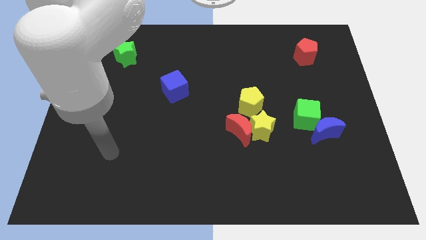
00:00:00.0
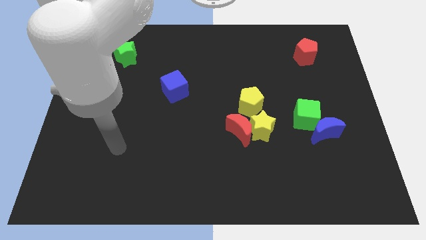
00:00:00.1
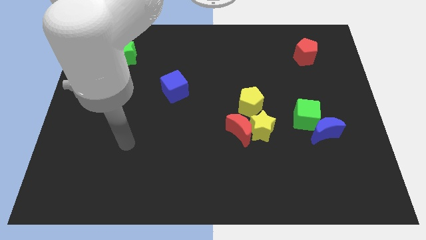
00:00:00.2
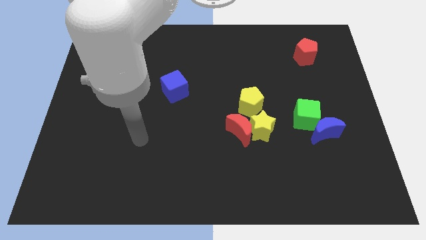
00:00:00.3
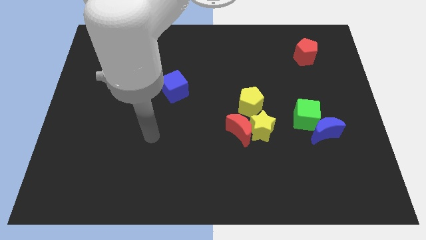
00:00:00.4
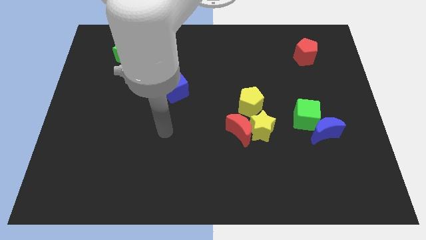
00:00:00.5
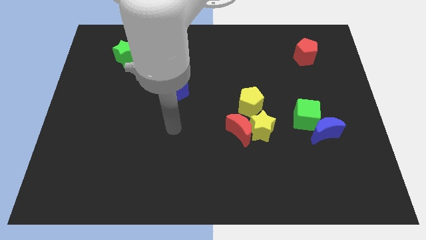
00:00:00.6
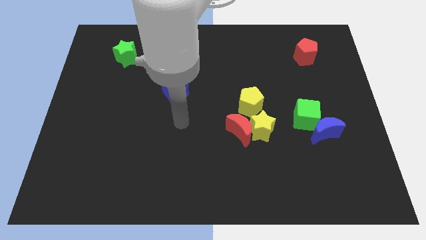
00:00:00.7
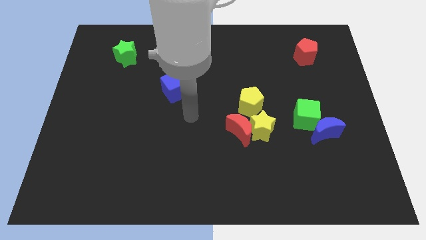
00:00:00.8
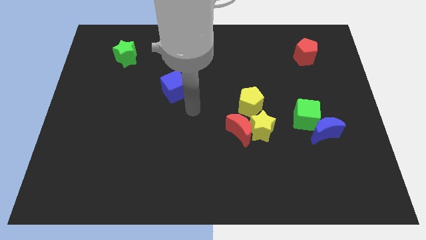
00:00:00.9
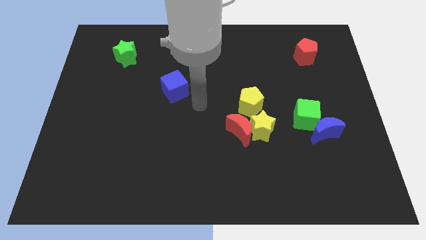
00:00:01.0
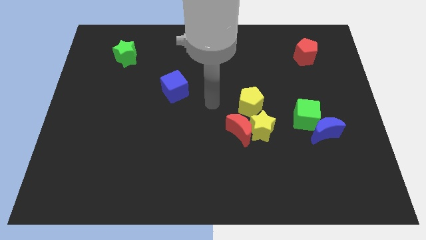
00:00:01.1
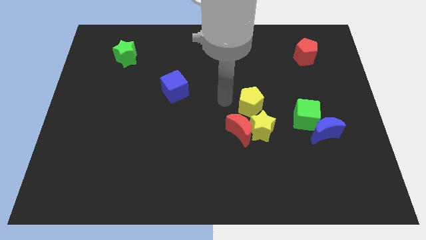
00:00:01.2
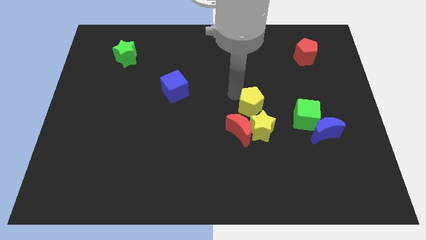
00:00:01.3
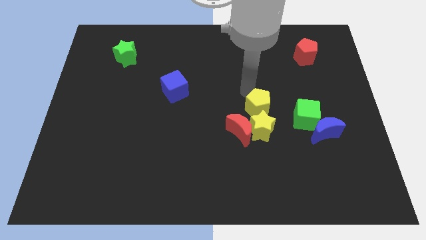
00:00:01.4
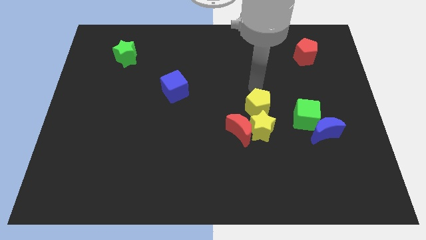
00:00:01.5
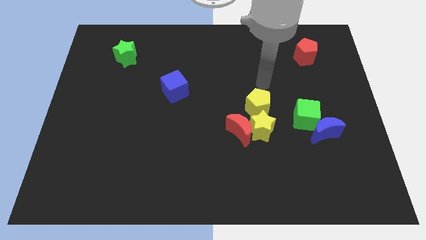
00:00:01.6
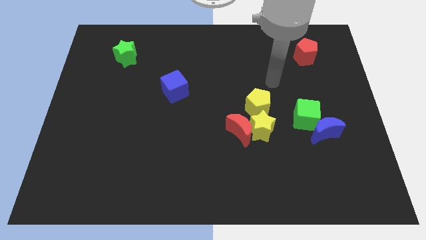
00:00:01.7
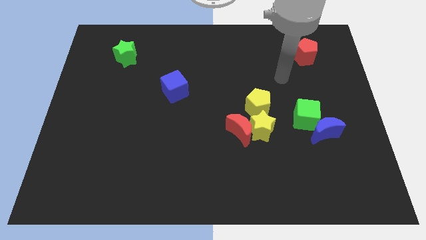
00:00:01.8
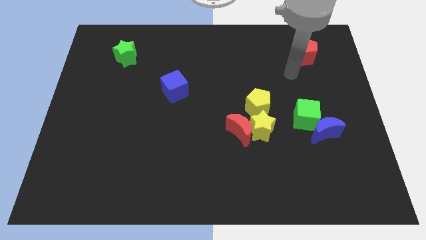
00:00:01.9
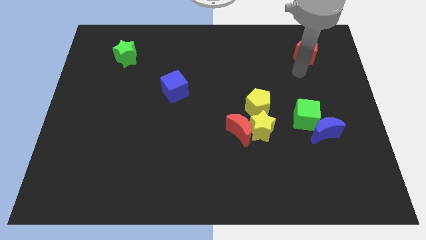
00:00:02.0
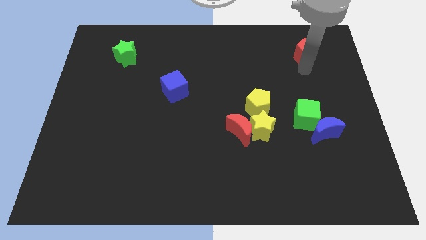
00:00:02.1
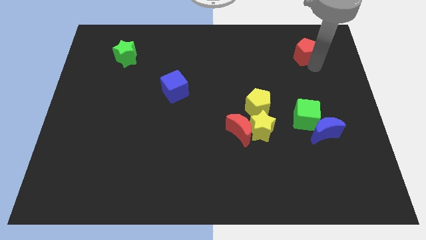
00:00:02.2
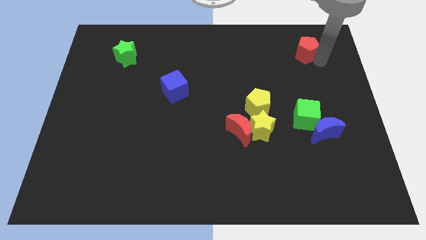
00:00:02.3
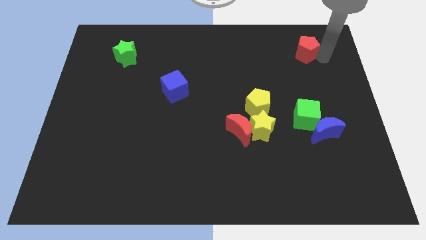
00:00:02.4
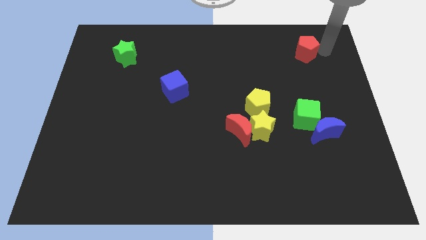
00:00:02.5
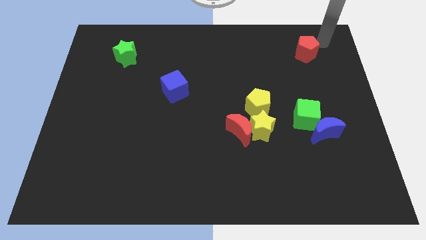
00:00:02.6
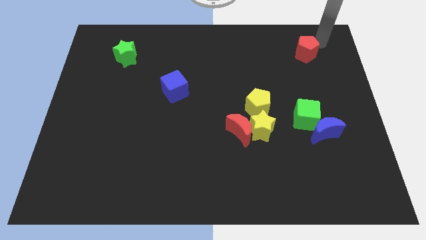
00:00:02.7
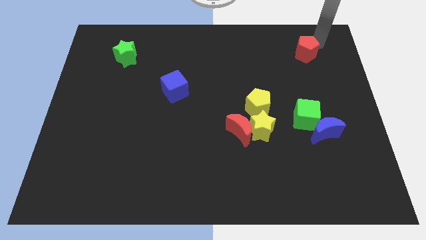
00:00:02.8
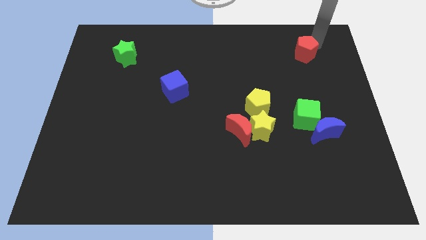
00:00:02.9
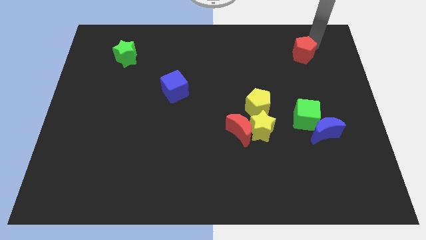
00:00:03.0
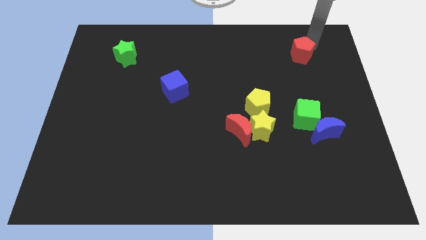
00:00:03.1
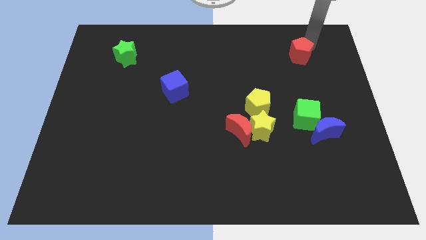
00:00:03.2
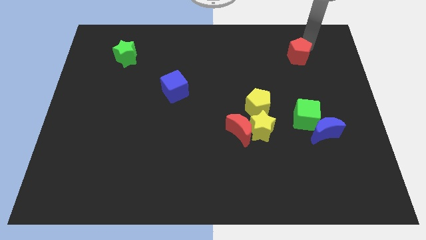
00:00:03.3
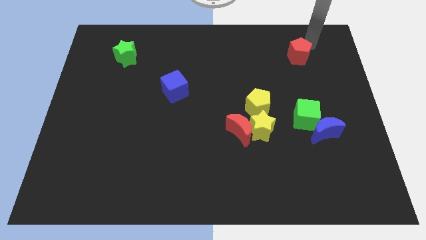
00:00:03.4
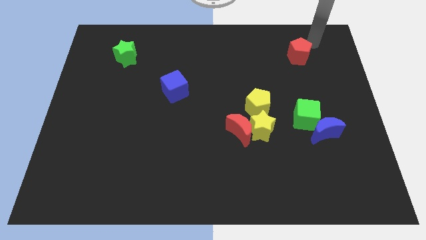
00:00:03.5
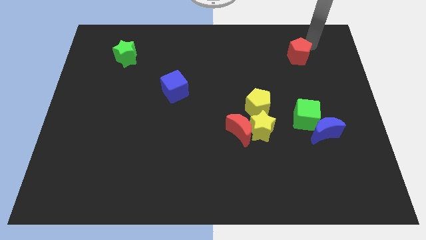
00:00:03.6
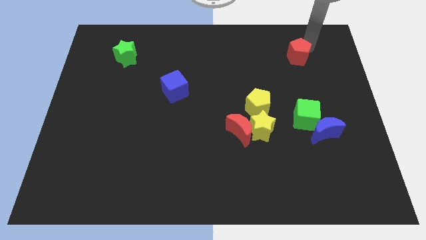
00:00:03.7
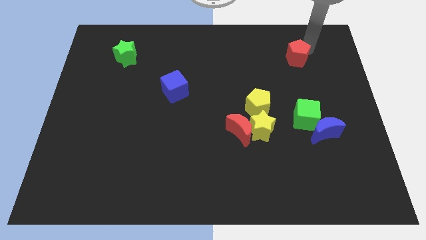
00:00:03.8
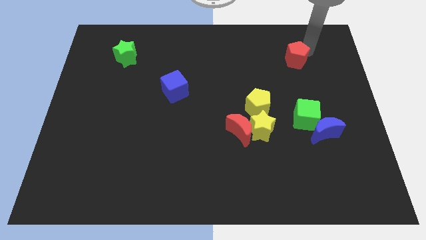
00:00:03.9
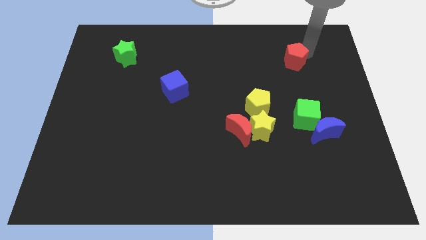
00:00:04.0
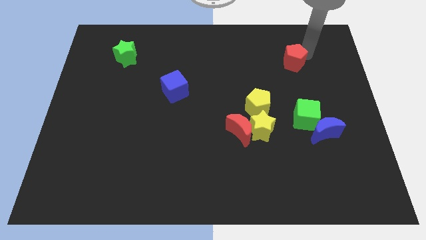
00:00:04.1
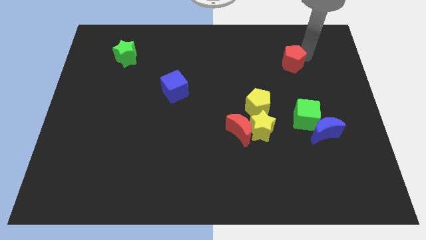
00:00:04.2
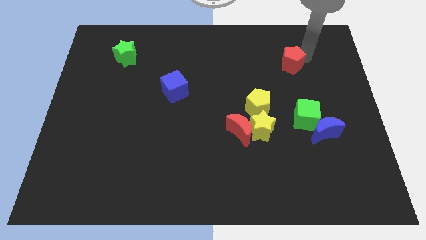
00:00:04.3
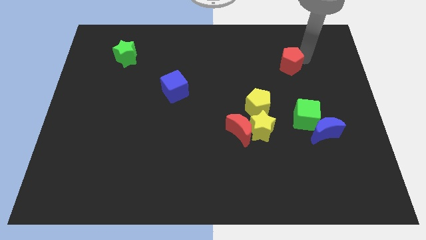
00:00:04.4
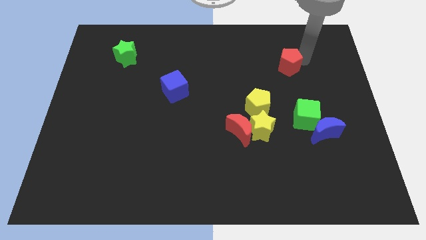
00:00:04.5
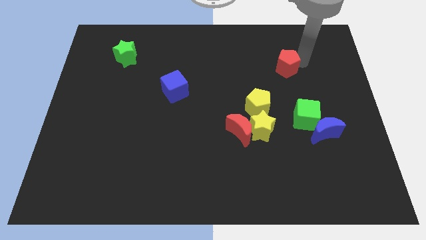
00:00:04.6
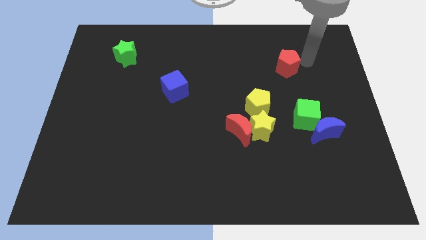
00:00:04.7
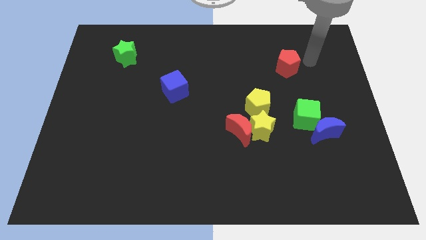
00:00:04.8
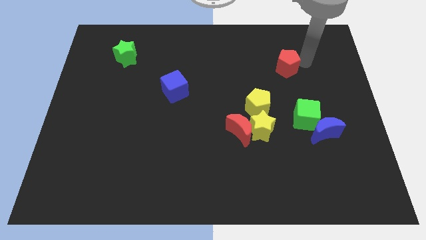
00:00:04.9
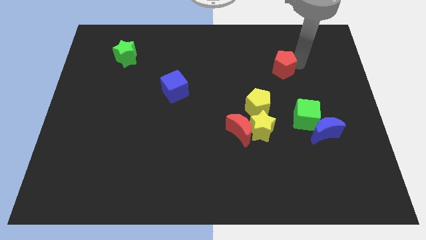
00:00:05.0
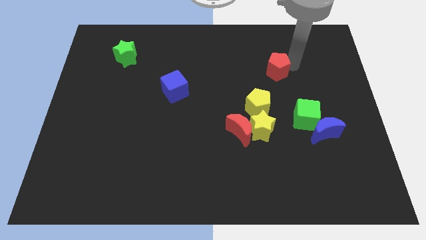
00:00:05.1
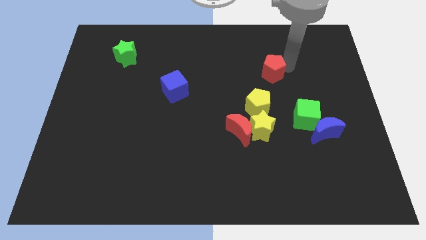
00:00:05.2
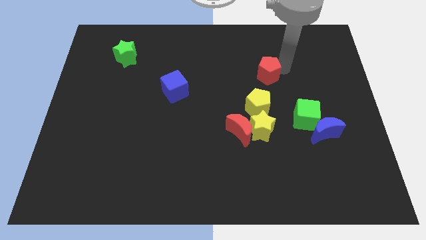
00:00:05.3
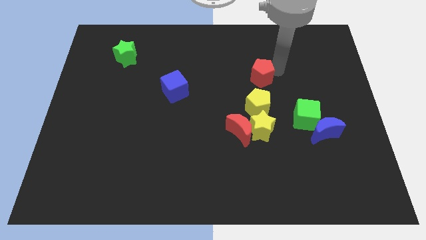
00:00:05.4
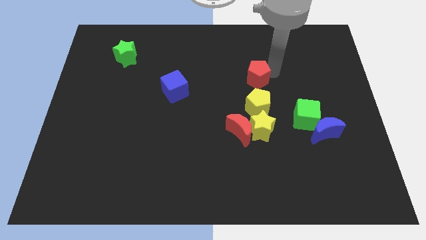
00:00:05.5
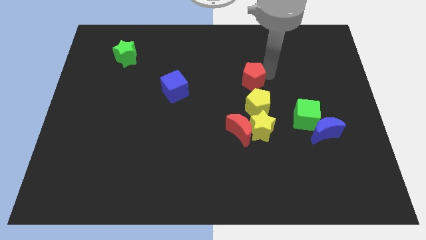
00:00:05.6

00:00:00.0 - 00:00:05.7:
push the red pentagon to the center of the board

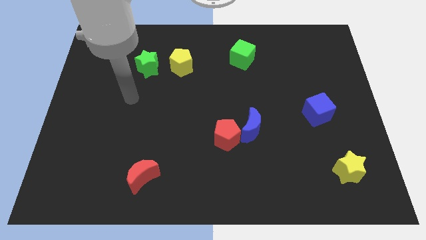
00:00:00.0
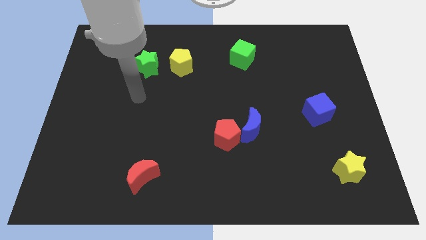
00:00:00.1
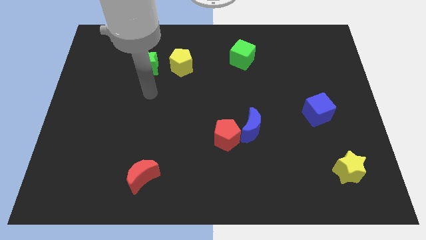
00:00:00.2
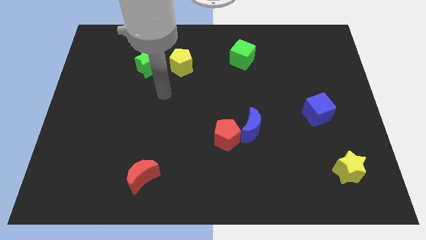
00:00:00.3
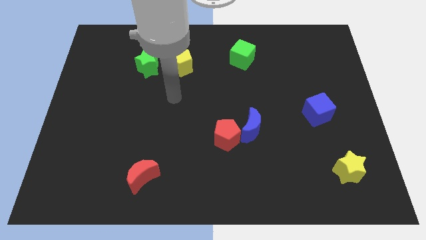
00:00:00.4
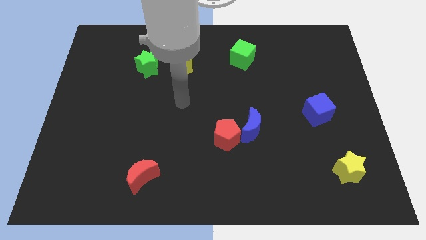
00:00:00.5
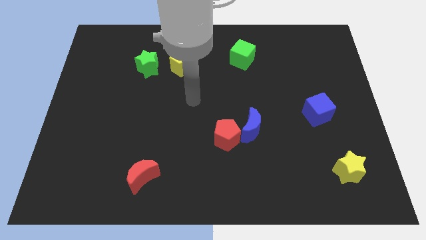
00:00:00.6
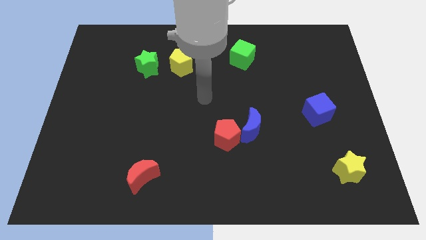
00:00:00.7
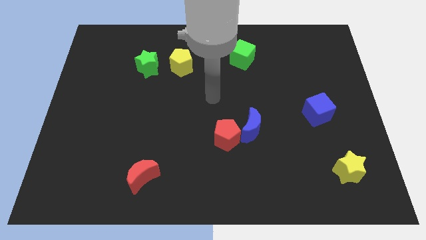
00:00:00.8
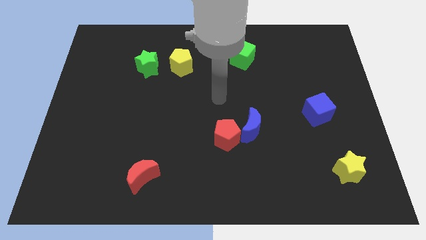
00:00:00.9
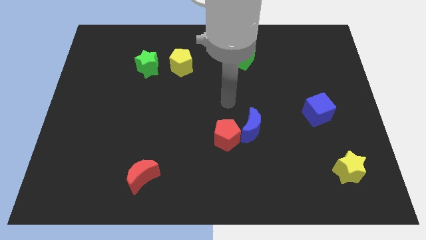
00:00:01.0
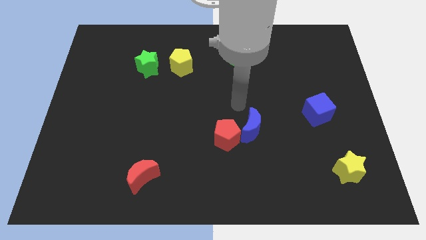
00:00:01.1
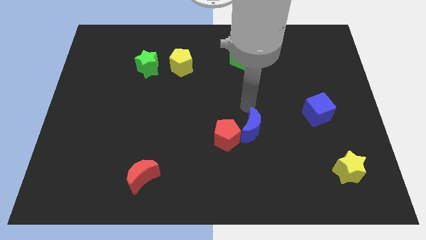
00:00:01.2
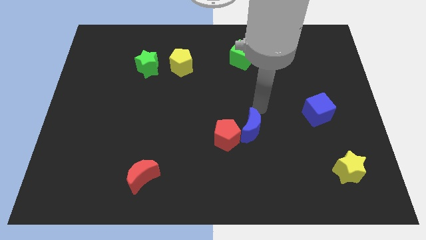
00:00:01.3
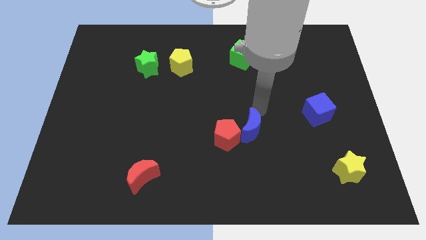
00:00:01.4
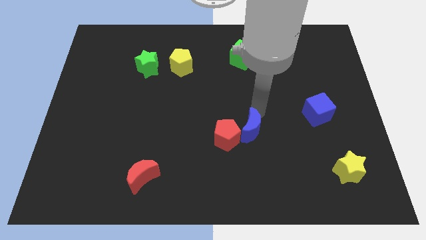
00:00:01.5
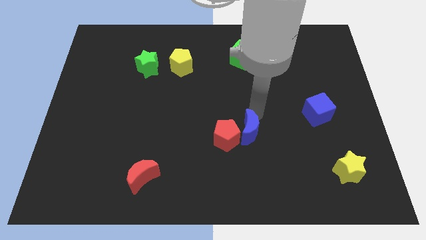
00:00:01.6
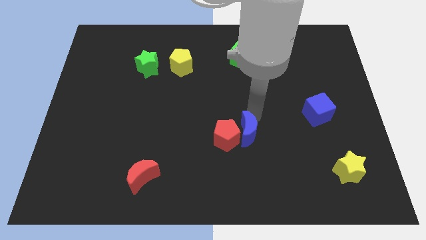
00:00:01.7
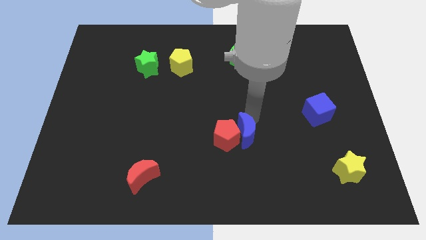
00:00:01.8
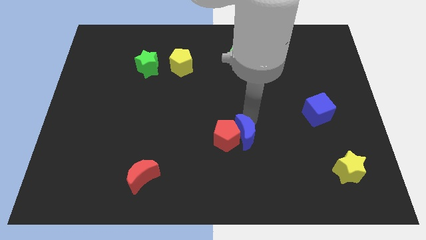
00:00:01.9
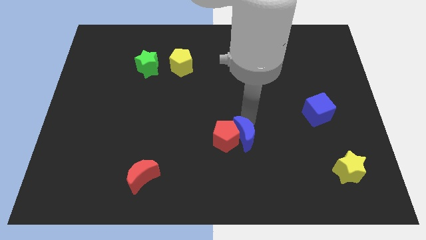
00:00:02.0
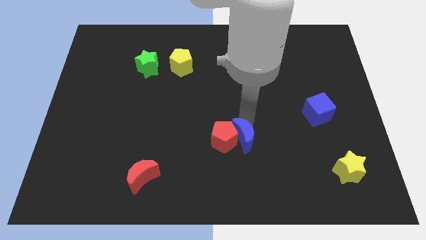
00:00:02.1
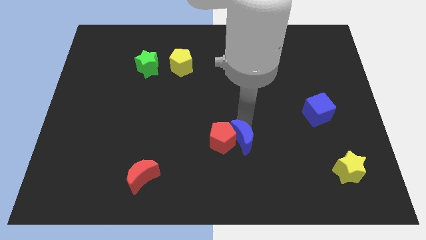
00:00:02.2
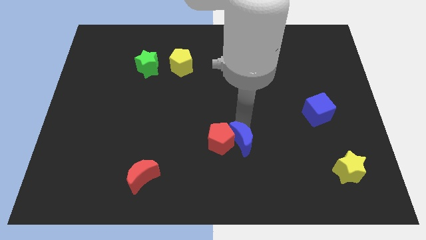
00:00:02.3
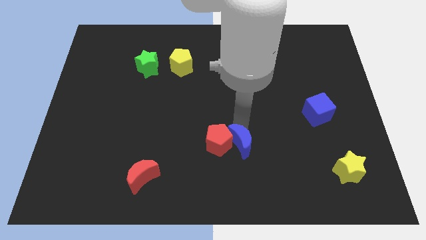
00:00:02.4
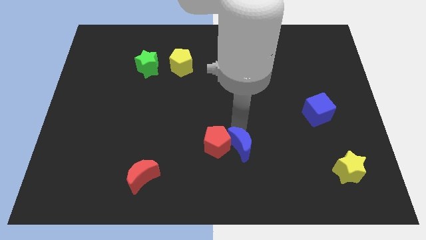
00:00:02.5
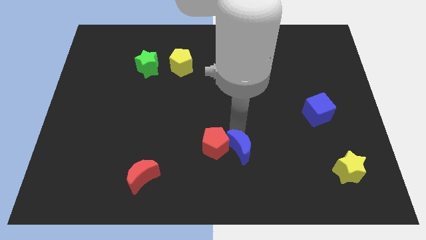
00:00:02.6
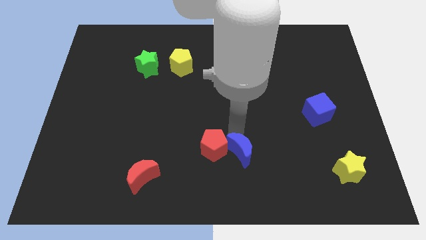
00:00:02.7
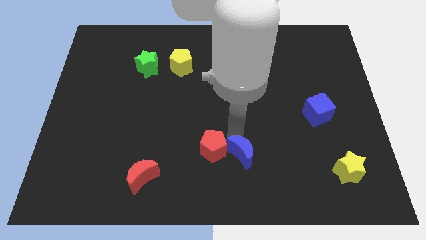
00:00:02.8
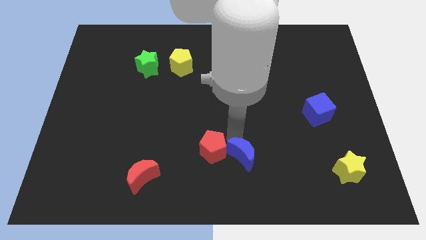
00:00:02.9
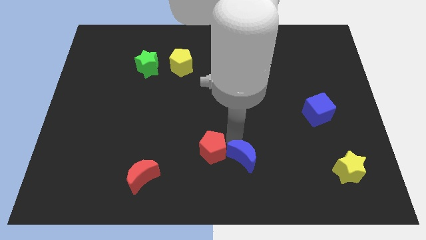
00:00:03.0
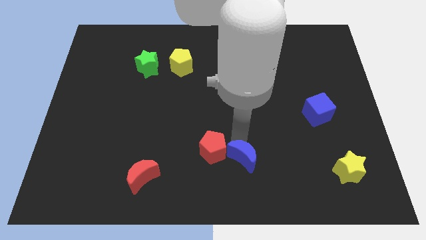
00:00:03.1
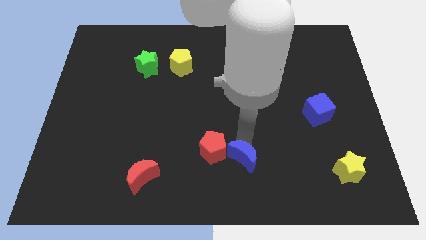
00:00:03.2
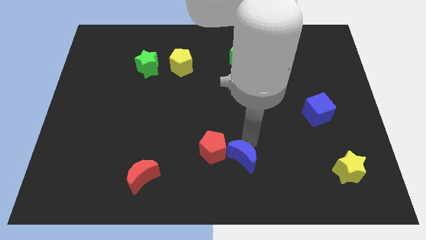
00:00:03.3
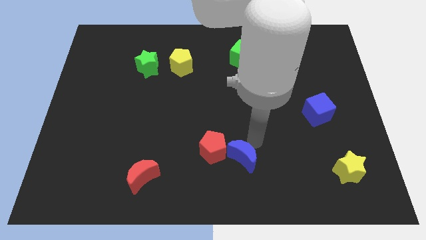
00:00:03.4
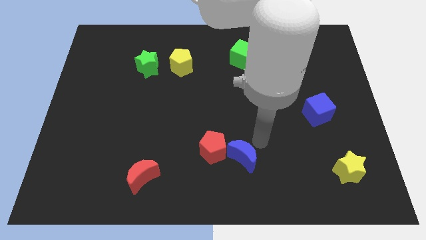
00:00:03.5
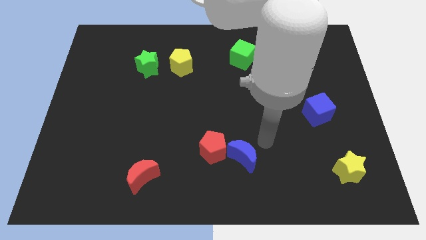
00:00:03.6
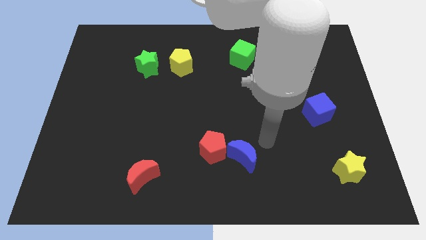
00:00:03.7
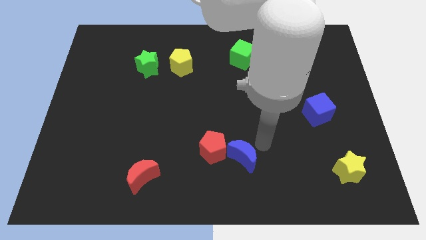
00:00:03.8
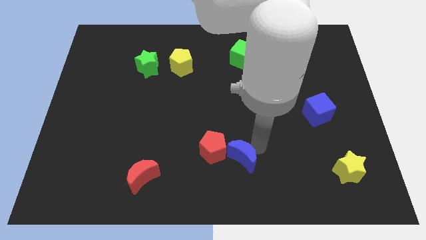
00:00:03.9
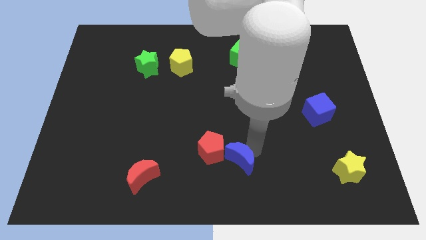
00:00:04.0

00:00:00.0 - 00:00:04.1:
slide the blue moon to the bottom
